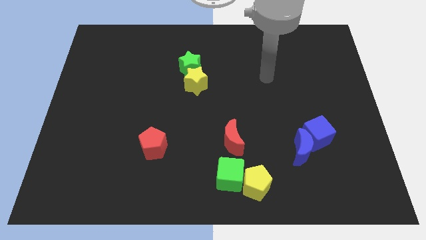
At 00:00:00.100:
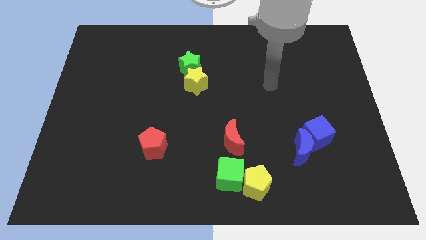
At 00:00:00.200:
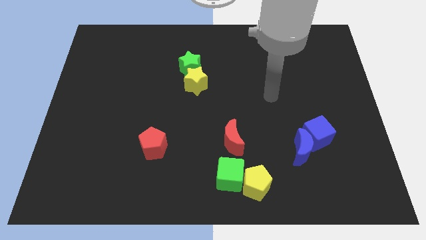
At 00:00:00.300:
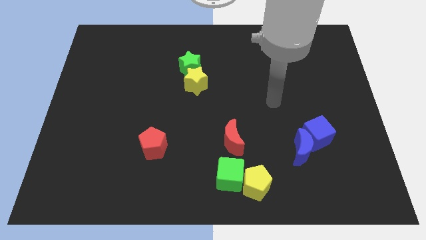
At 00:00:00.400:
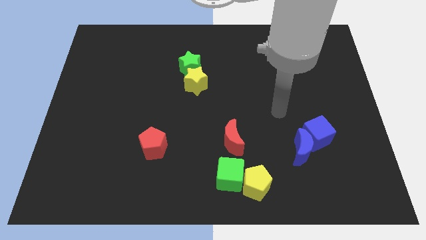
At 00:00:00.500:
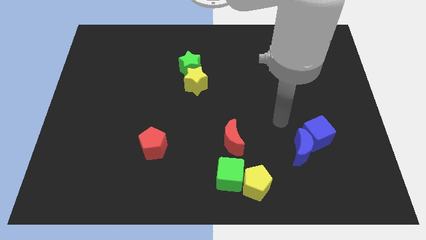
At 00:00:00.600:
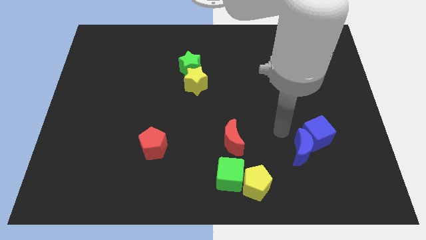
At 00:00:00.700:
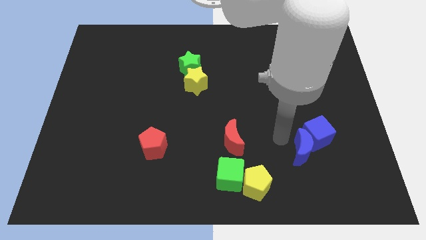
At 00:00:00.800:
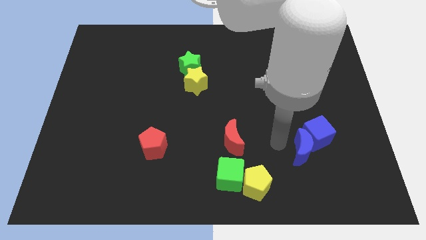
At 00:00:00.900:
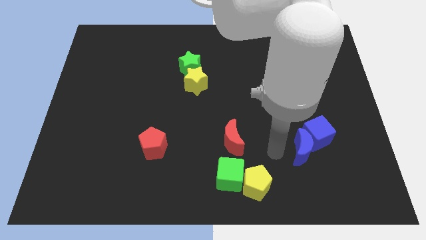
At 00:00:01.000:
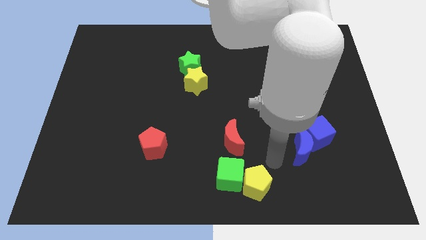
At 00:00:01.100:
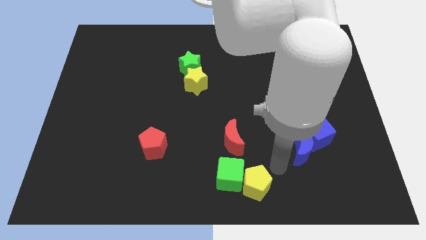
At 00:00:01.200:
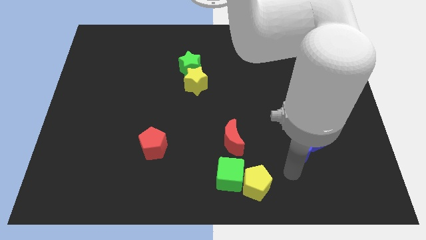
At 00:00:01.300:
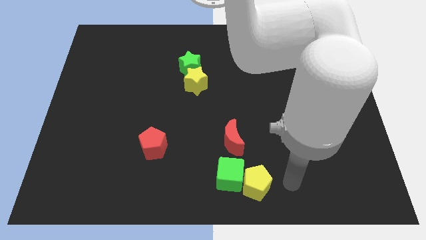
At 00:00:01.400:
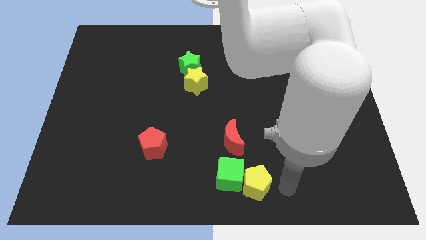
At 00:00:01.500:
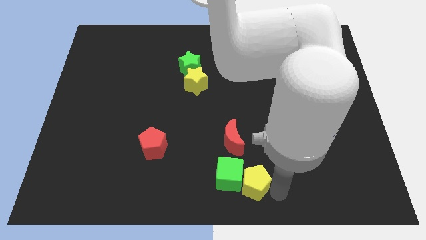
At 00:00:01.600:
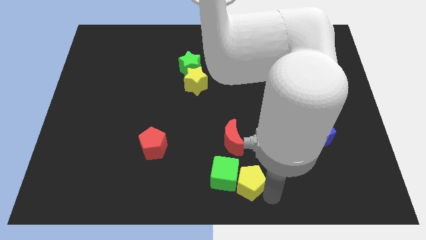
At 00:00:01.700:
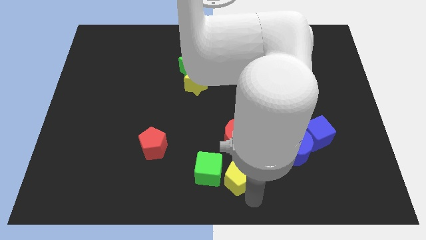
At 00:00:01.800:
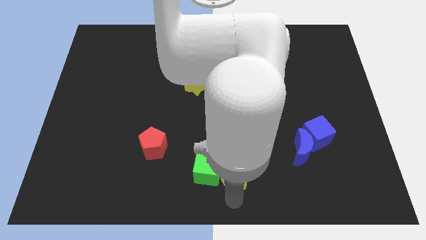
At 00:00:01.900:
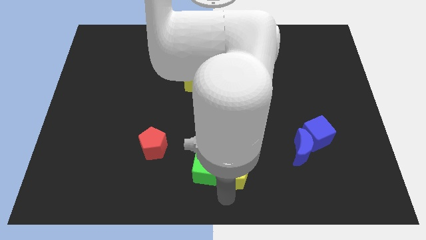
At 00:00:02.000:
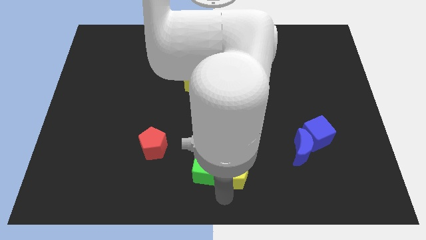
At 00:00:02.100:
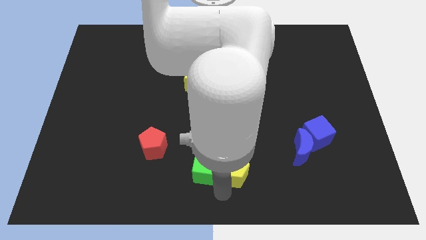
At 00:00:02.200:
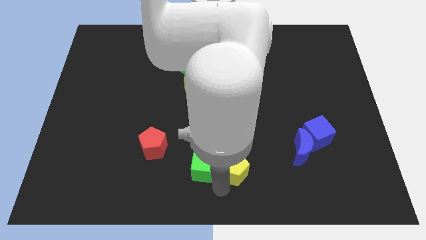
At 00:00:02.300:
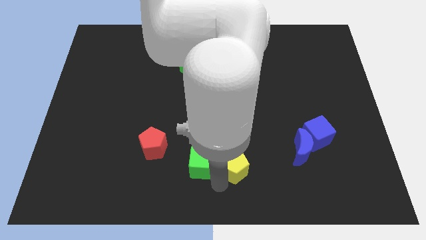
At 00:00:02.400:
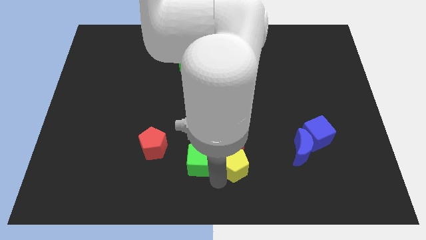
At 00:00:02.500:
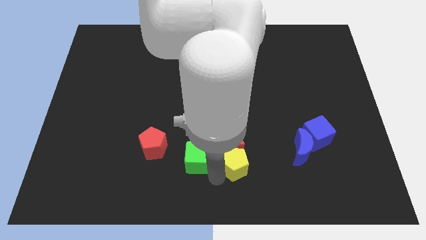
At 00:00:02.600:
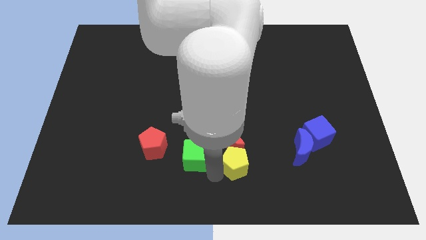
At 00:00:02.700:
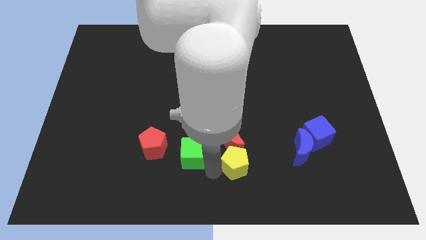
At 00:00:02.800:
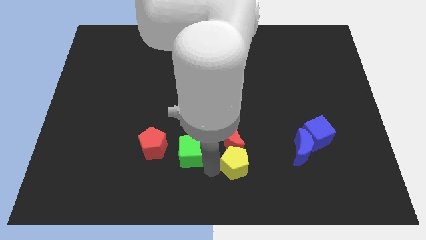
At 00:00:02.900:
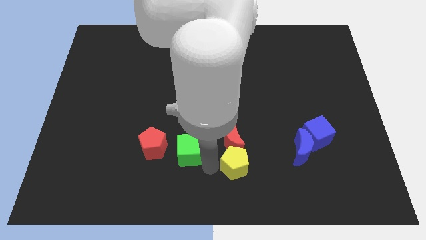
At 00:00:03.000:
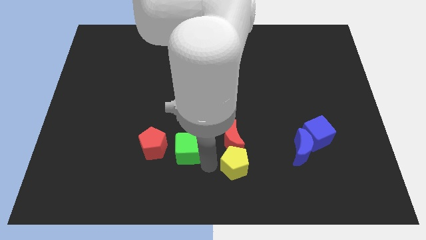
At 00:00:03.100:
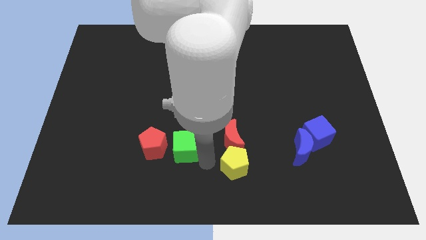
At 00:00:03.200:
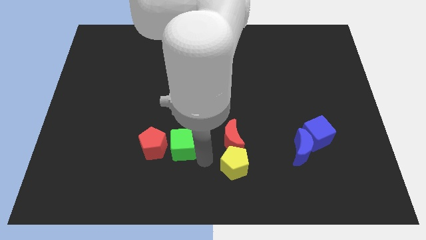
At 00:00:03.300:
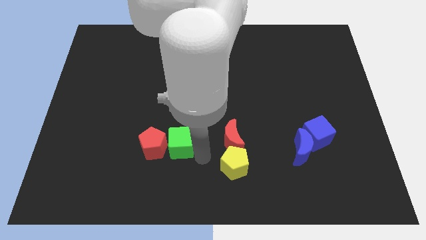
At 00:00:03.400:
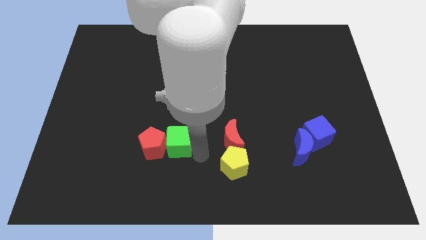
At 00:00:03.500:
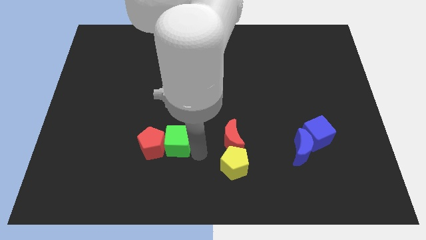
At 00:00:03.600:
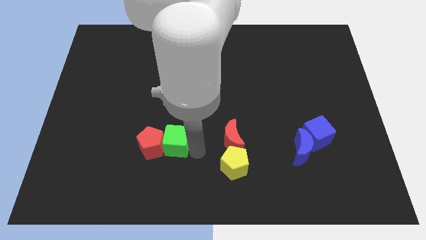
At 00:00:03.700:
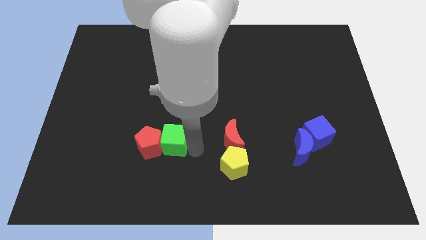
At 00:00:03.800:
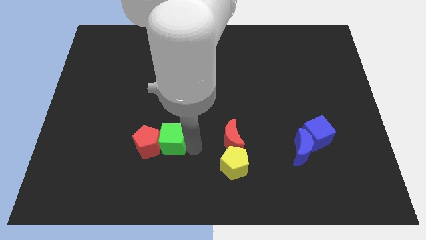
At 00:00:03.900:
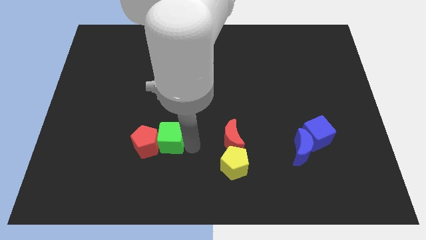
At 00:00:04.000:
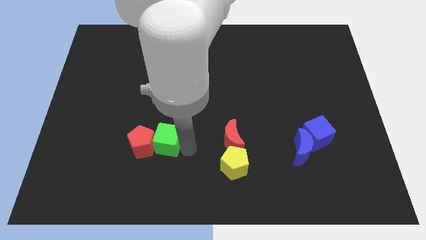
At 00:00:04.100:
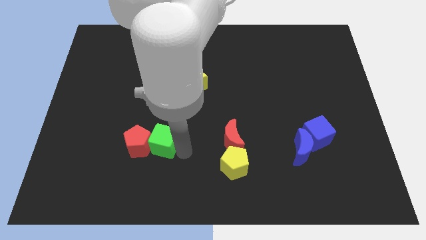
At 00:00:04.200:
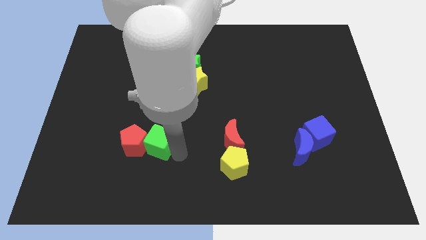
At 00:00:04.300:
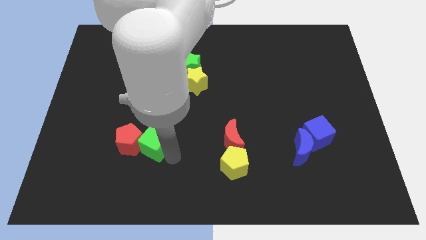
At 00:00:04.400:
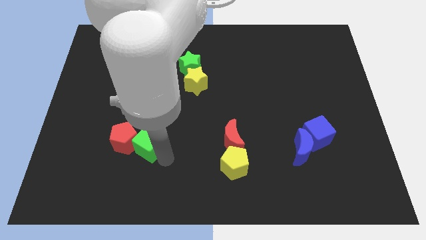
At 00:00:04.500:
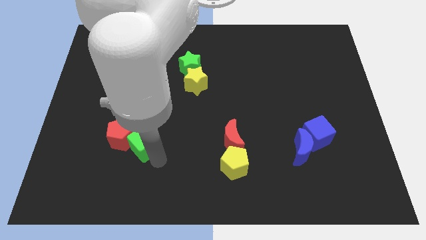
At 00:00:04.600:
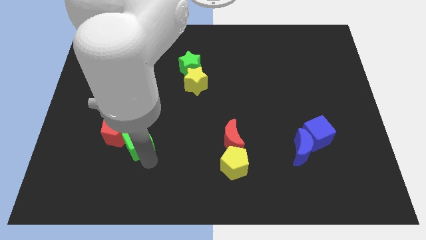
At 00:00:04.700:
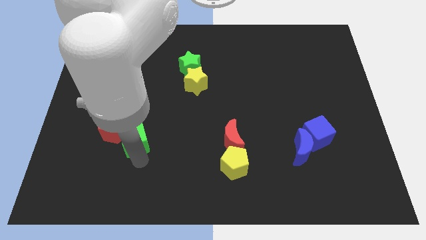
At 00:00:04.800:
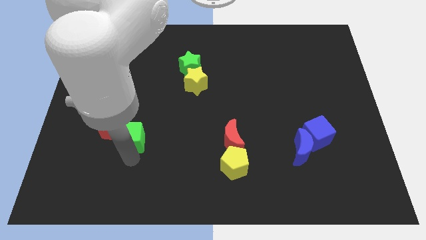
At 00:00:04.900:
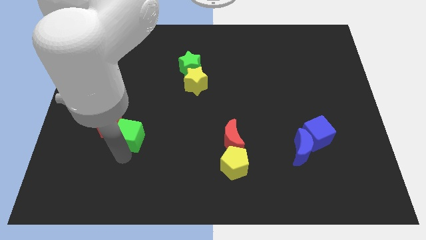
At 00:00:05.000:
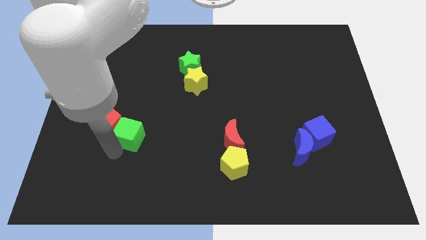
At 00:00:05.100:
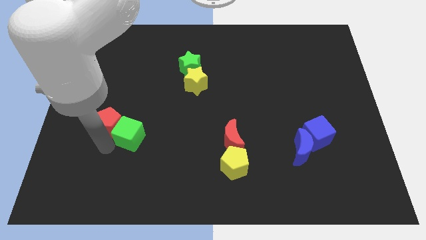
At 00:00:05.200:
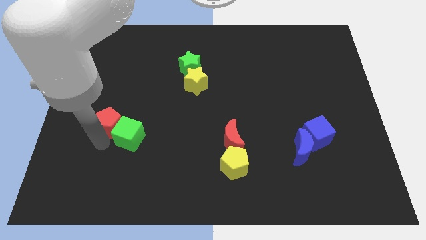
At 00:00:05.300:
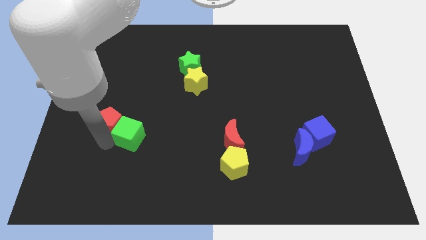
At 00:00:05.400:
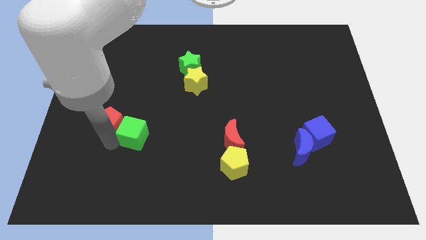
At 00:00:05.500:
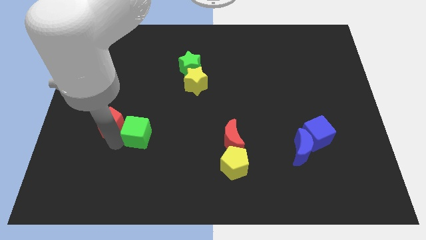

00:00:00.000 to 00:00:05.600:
move the green cube diagonally upwards and left

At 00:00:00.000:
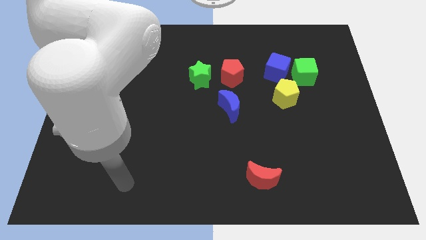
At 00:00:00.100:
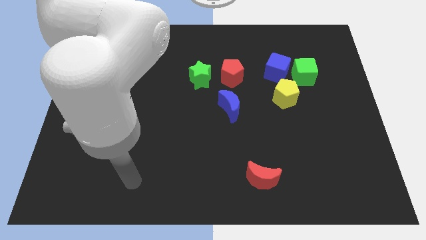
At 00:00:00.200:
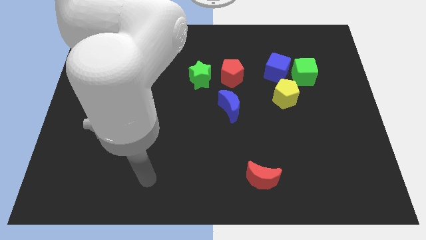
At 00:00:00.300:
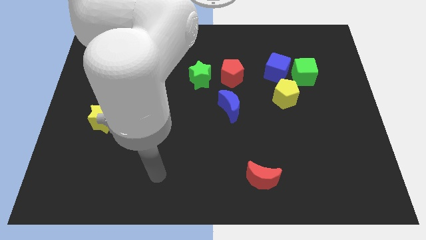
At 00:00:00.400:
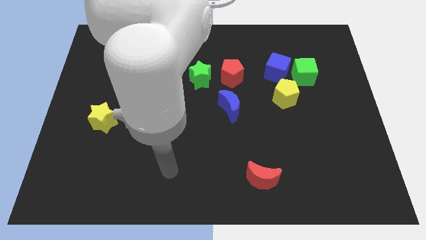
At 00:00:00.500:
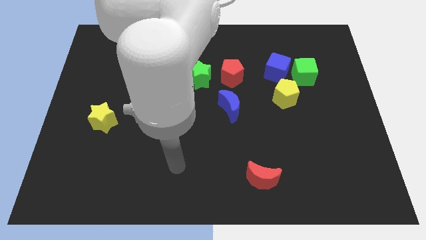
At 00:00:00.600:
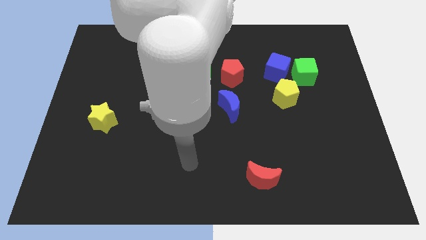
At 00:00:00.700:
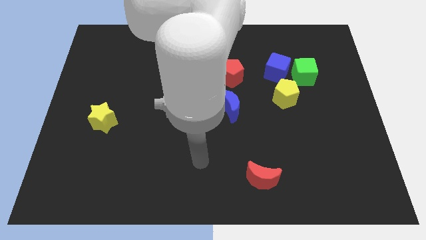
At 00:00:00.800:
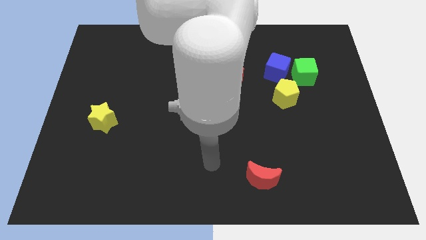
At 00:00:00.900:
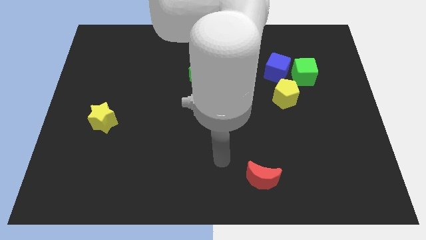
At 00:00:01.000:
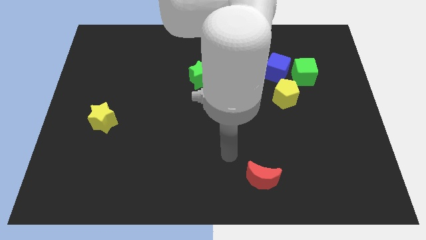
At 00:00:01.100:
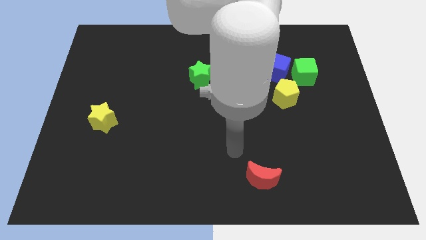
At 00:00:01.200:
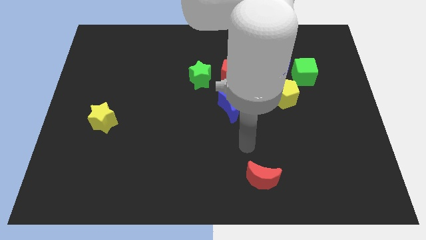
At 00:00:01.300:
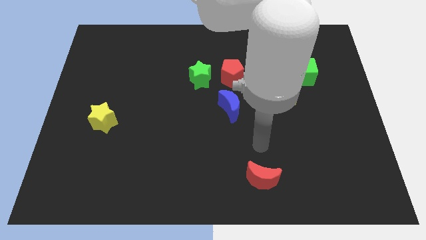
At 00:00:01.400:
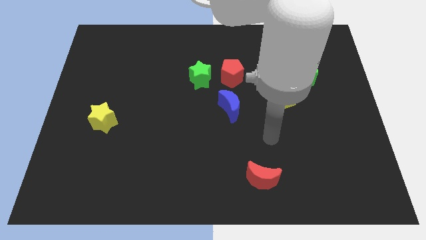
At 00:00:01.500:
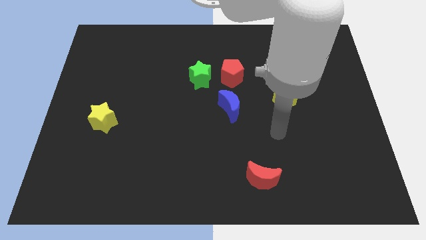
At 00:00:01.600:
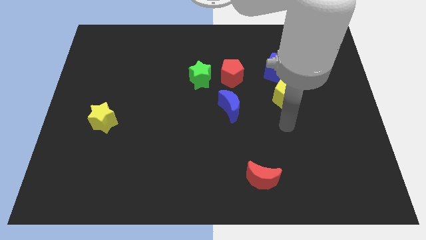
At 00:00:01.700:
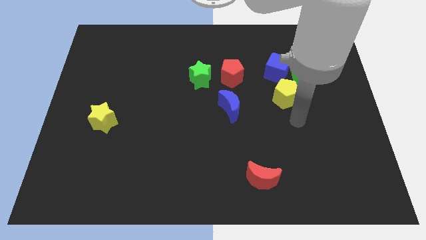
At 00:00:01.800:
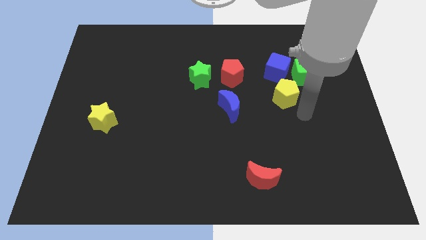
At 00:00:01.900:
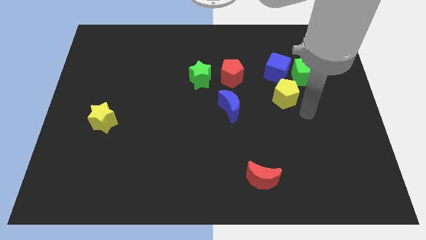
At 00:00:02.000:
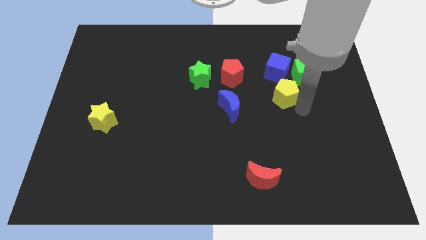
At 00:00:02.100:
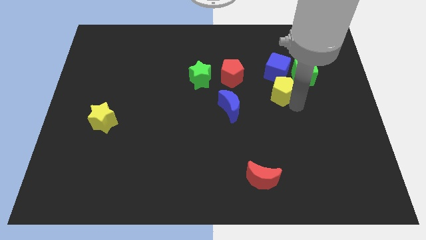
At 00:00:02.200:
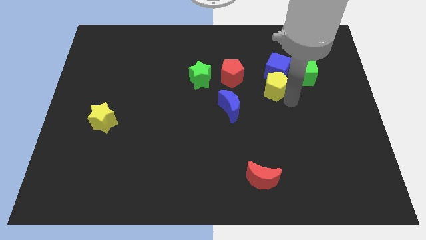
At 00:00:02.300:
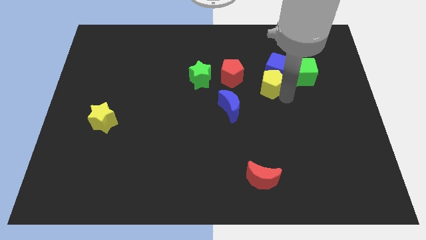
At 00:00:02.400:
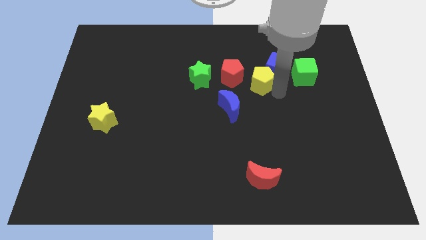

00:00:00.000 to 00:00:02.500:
push the yellow pentagon a bit upwards and then left
